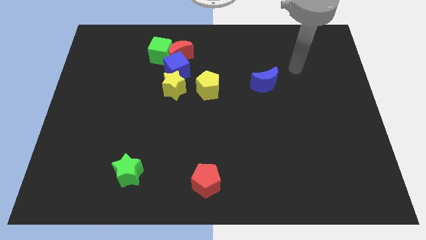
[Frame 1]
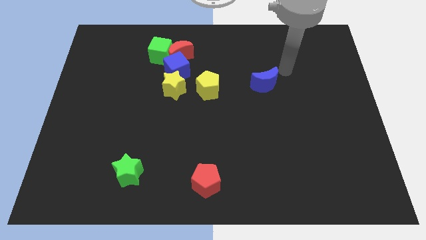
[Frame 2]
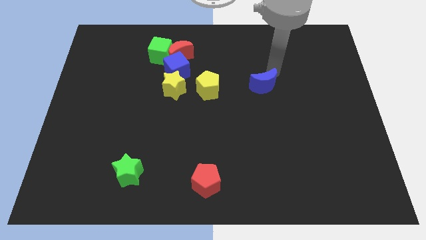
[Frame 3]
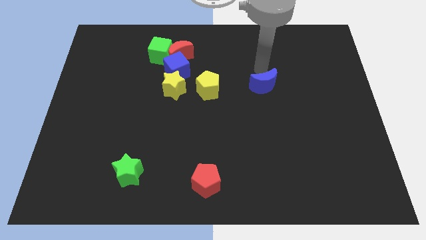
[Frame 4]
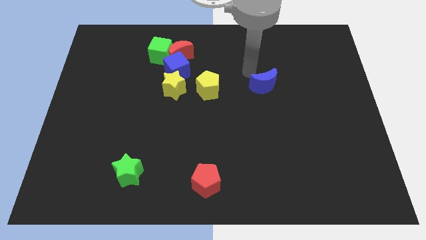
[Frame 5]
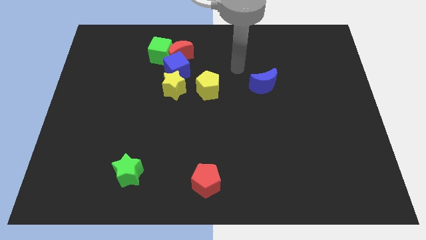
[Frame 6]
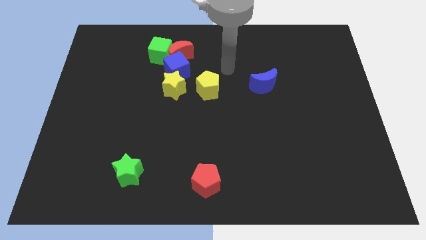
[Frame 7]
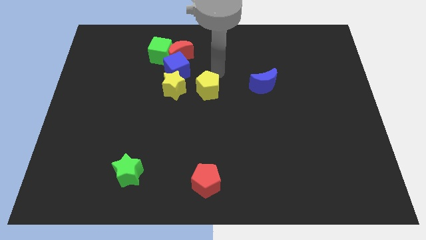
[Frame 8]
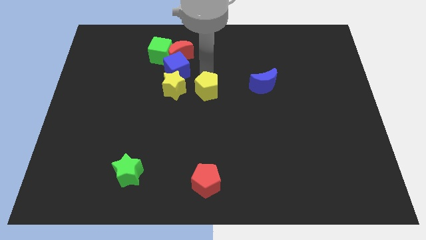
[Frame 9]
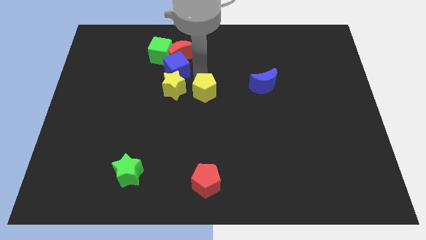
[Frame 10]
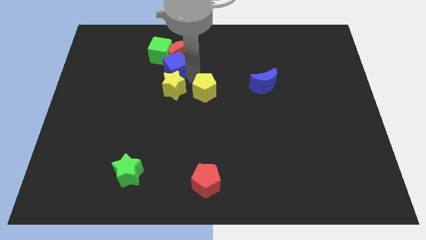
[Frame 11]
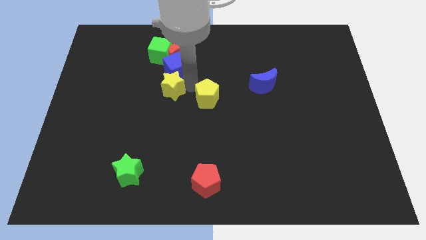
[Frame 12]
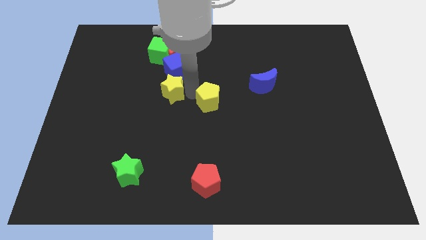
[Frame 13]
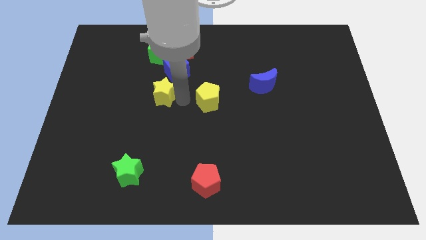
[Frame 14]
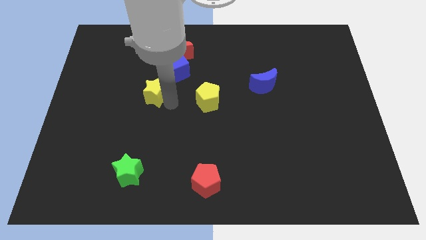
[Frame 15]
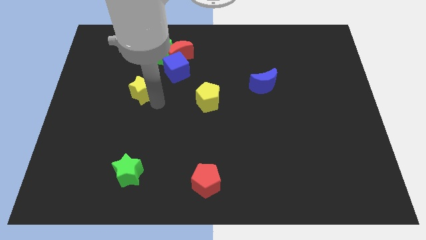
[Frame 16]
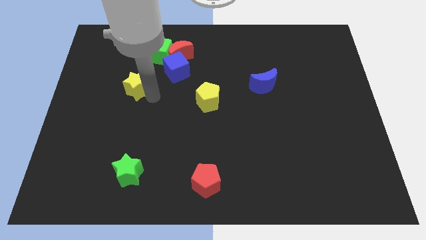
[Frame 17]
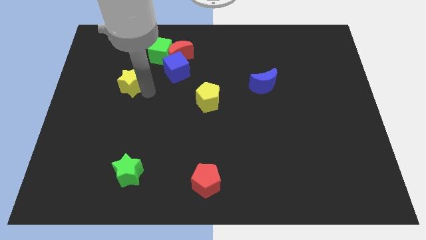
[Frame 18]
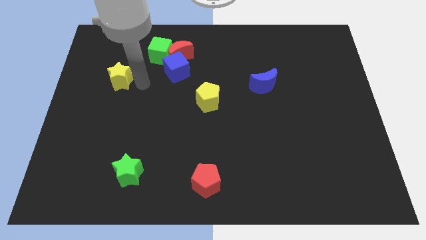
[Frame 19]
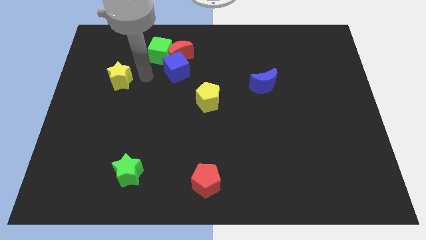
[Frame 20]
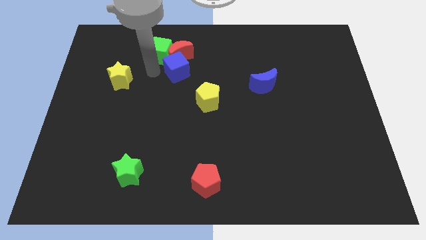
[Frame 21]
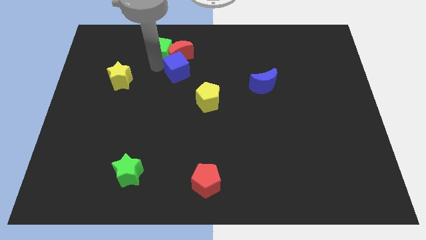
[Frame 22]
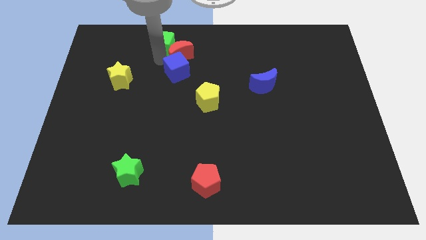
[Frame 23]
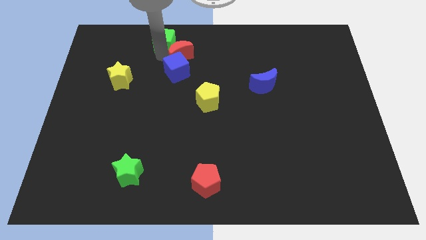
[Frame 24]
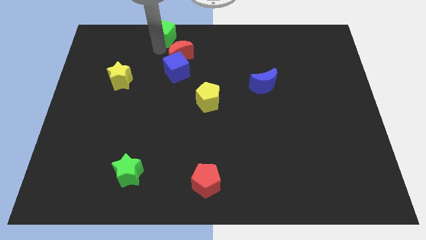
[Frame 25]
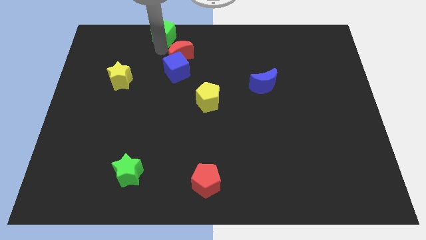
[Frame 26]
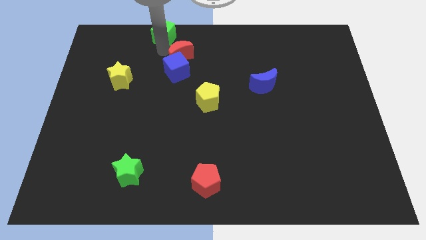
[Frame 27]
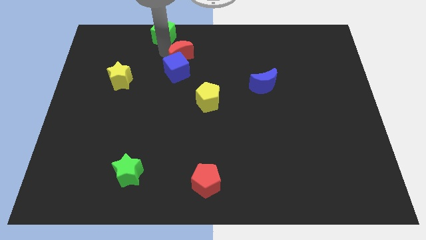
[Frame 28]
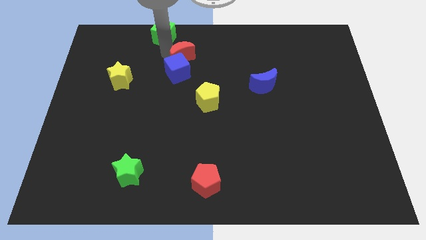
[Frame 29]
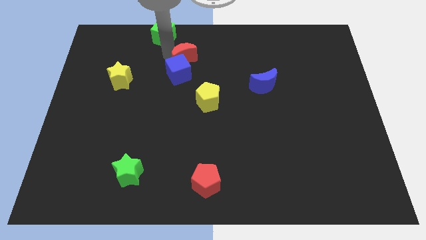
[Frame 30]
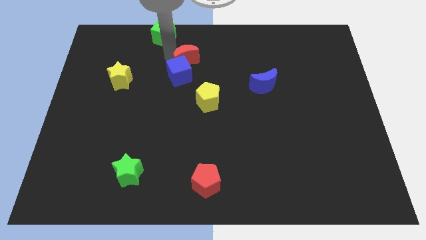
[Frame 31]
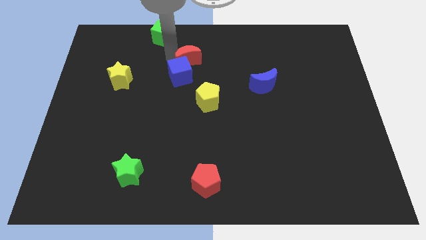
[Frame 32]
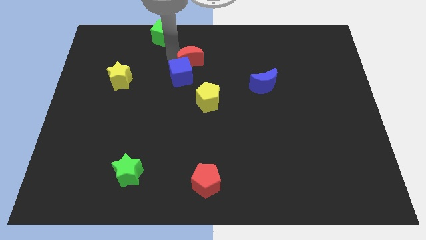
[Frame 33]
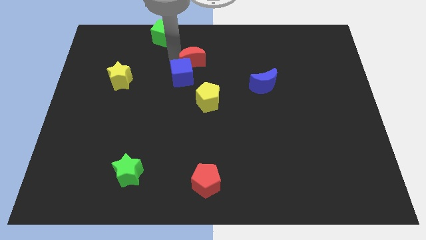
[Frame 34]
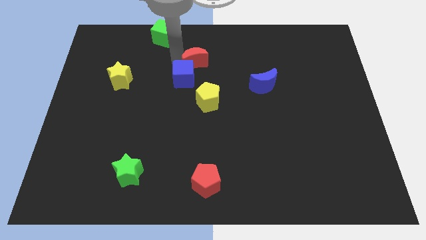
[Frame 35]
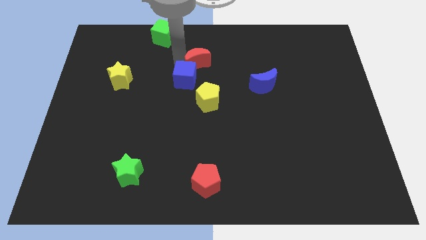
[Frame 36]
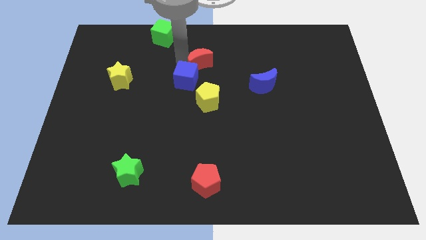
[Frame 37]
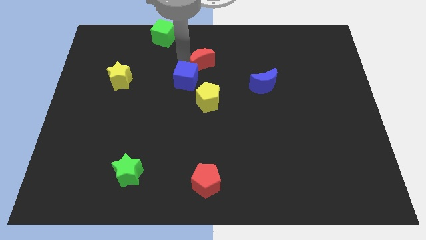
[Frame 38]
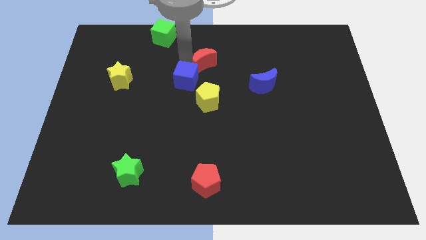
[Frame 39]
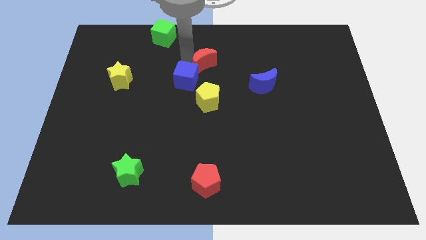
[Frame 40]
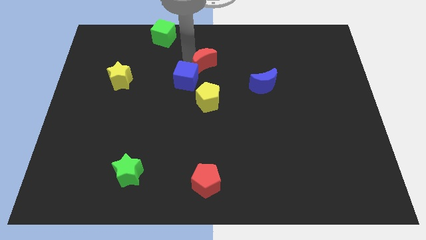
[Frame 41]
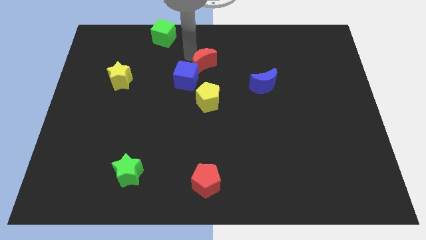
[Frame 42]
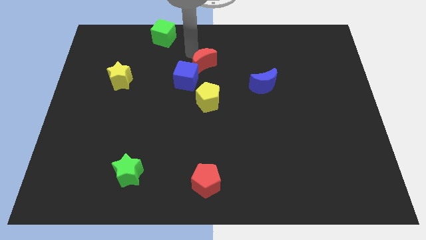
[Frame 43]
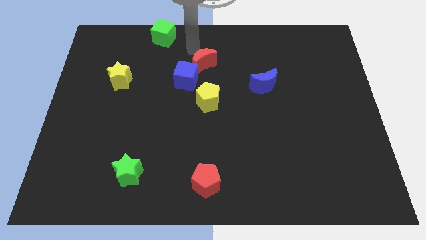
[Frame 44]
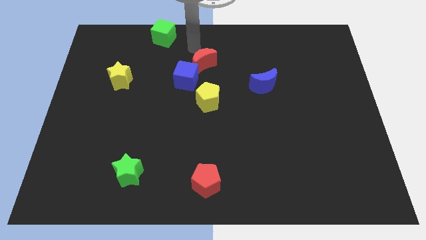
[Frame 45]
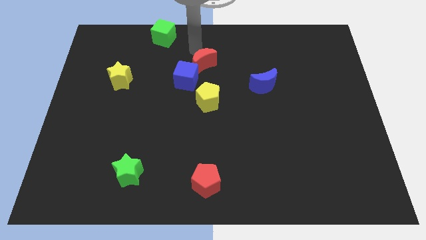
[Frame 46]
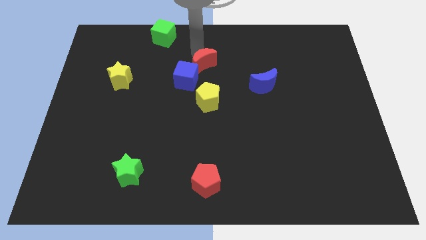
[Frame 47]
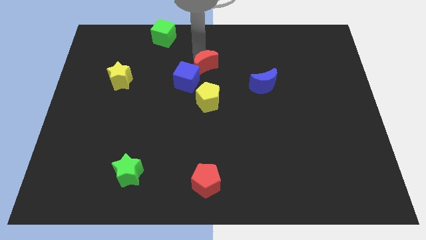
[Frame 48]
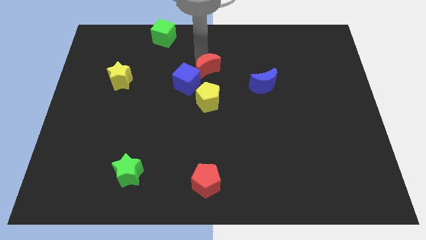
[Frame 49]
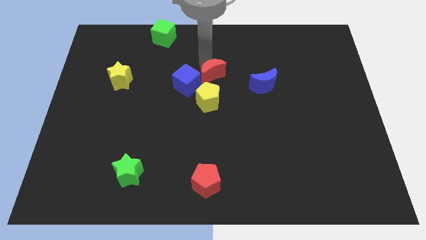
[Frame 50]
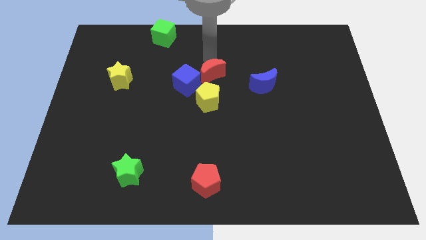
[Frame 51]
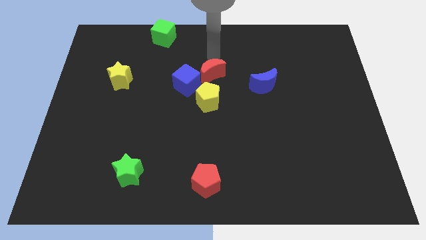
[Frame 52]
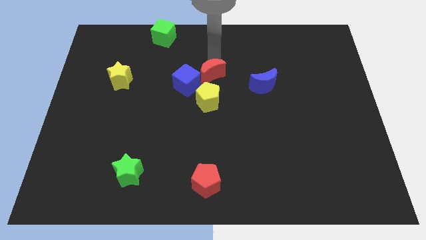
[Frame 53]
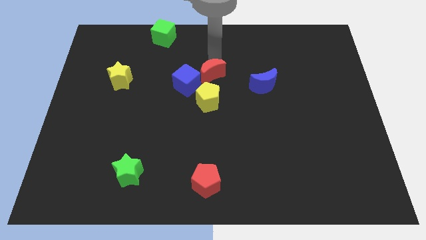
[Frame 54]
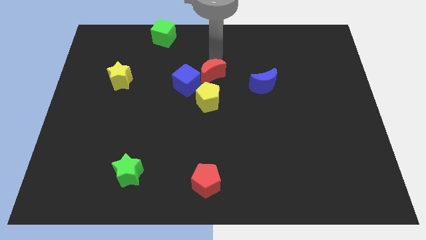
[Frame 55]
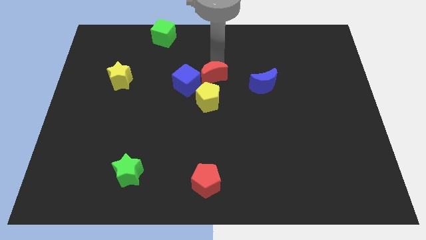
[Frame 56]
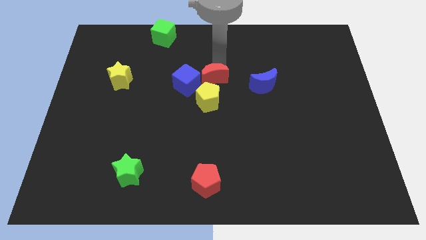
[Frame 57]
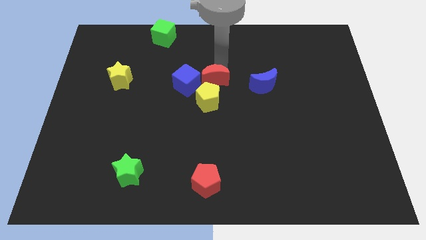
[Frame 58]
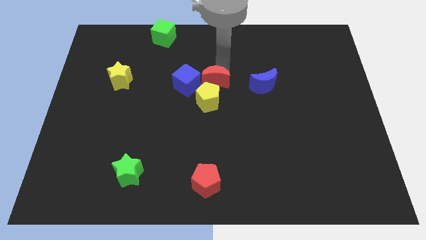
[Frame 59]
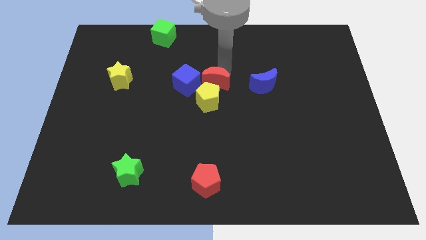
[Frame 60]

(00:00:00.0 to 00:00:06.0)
push the red moon to the yellow pentagon

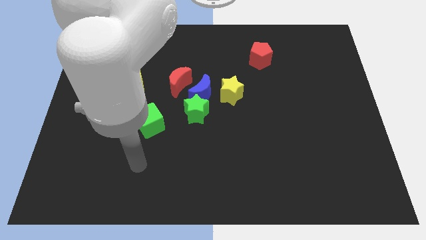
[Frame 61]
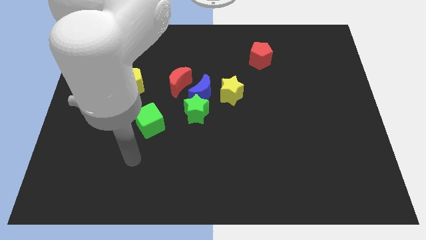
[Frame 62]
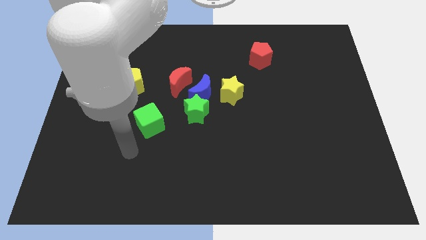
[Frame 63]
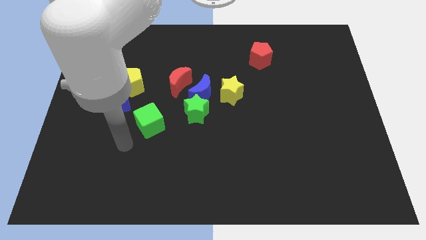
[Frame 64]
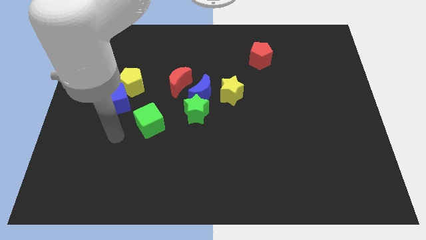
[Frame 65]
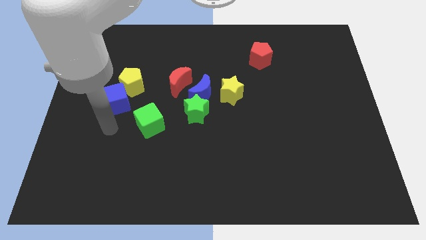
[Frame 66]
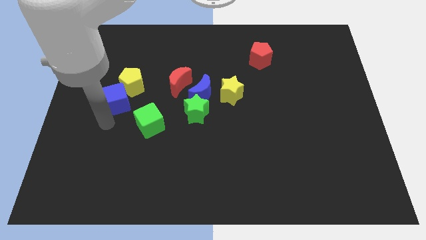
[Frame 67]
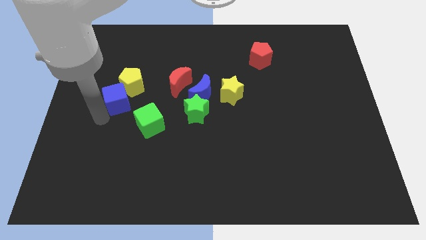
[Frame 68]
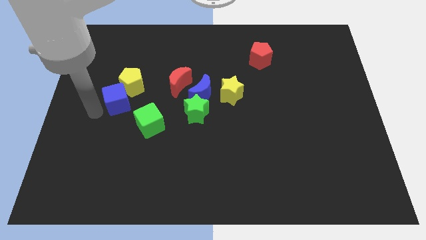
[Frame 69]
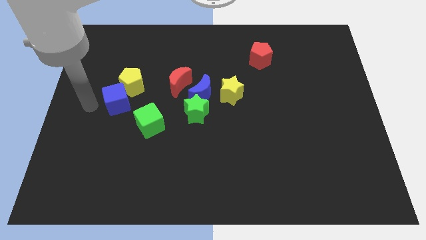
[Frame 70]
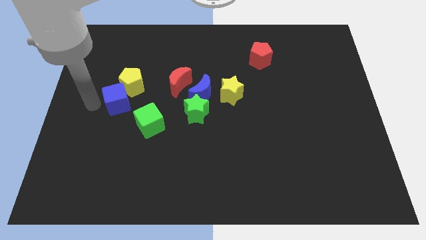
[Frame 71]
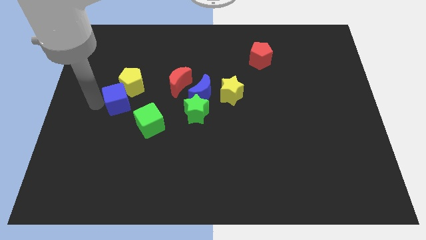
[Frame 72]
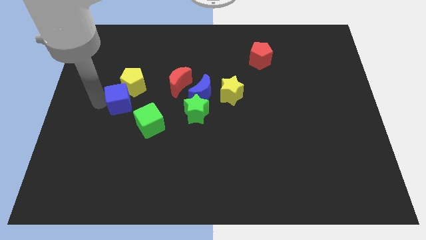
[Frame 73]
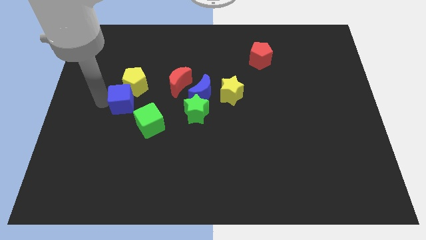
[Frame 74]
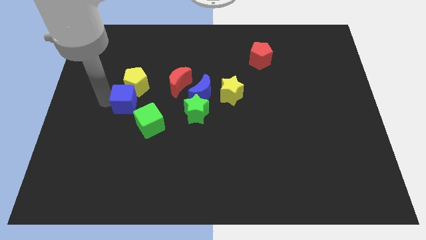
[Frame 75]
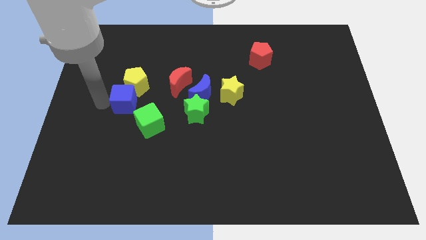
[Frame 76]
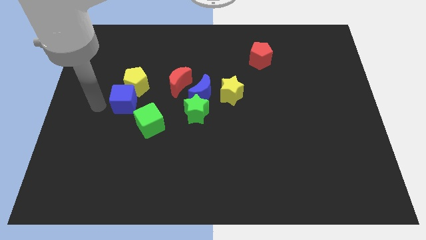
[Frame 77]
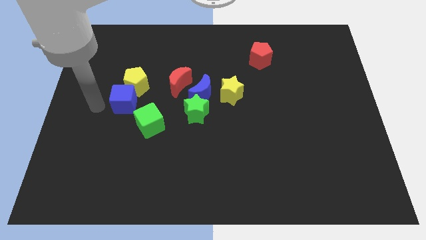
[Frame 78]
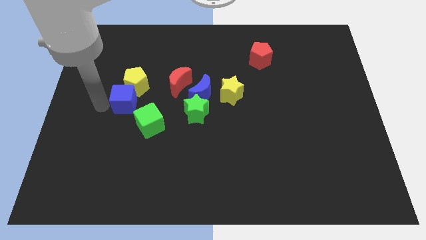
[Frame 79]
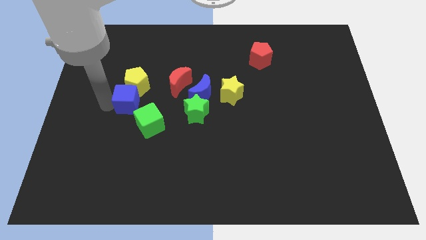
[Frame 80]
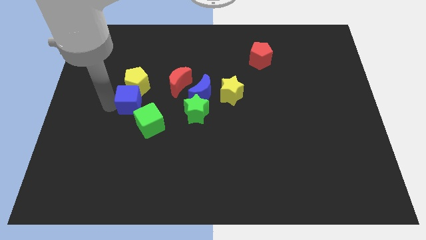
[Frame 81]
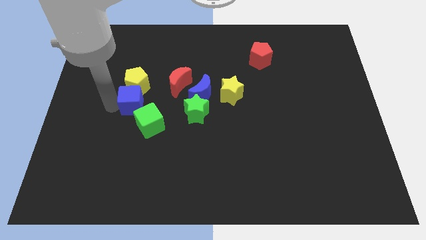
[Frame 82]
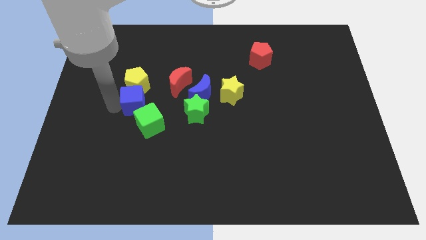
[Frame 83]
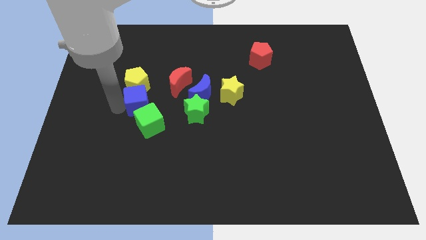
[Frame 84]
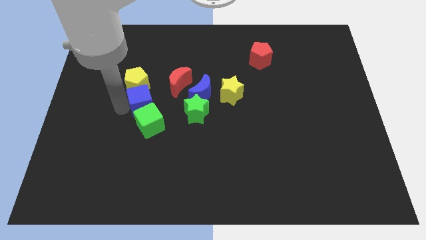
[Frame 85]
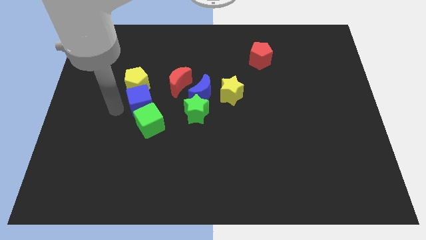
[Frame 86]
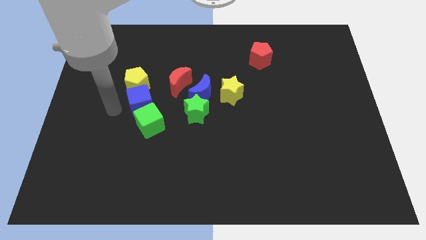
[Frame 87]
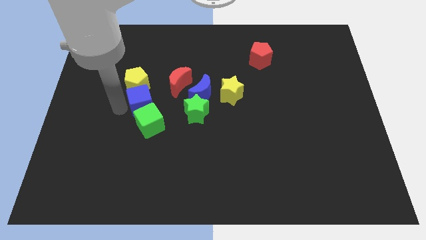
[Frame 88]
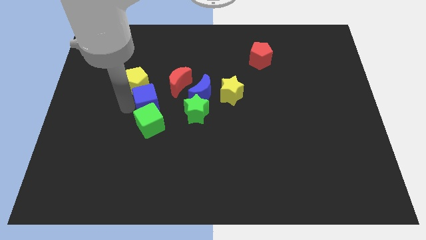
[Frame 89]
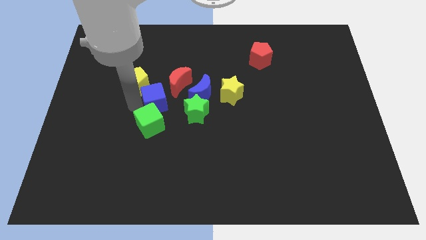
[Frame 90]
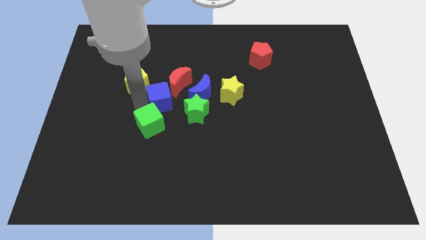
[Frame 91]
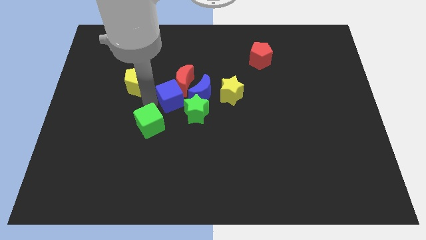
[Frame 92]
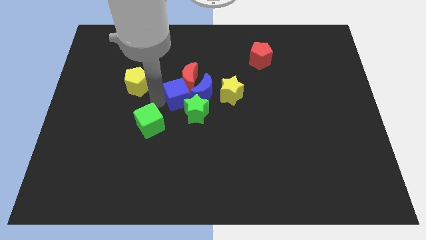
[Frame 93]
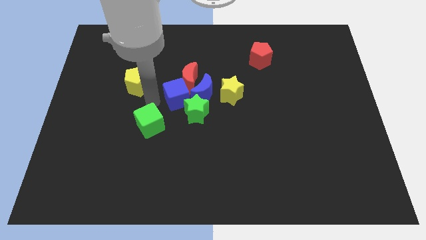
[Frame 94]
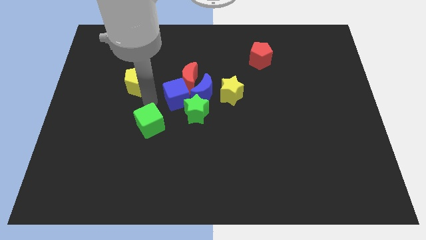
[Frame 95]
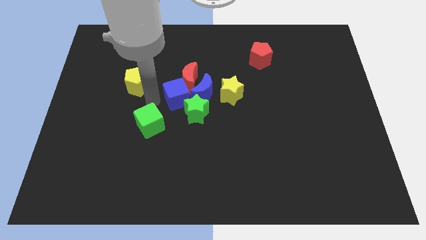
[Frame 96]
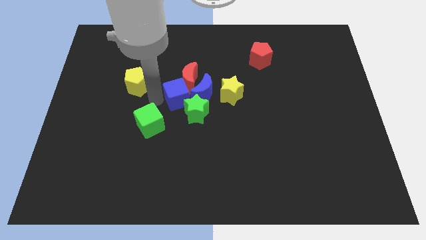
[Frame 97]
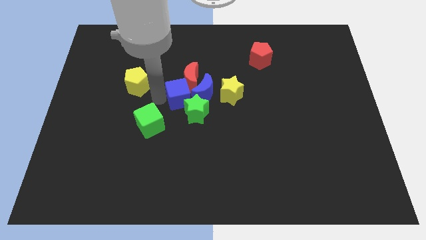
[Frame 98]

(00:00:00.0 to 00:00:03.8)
put the blue cube towards the blue moon
